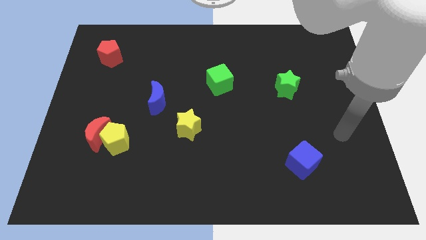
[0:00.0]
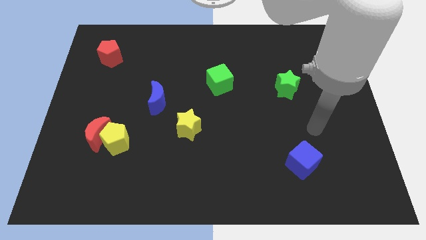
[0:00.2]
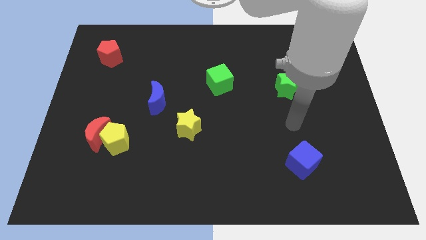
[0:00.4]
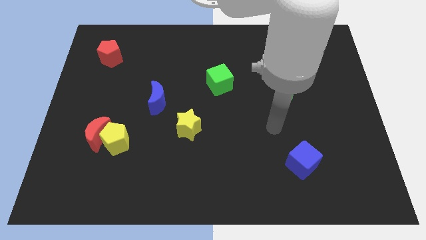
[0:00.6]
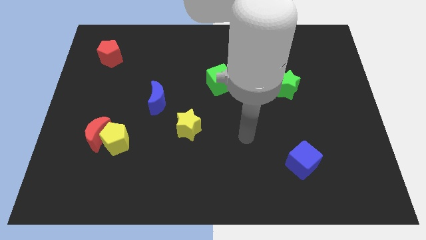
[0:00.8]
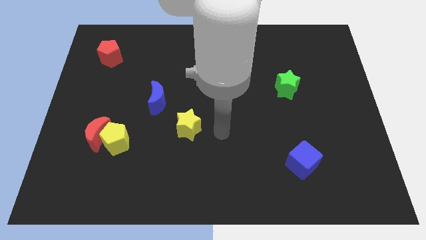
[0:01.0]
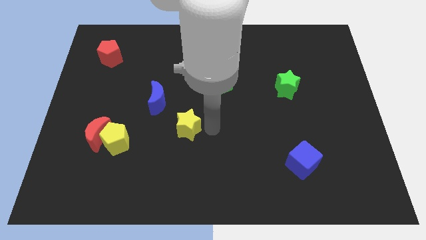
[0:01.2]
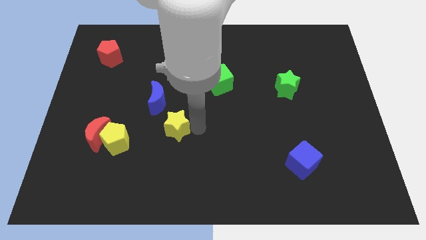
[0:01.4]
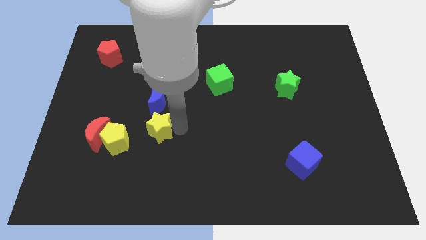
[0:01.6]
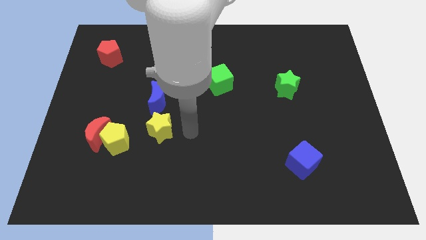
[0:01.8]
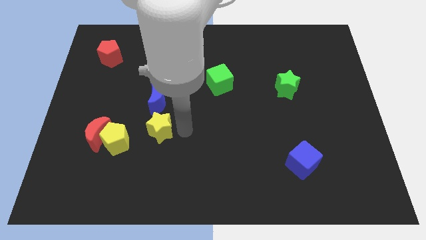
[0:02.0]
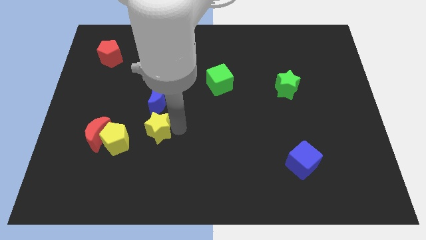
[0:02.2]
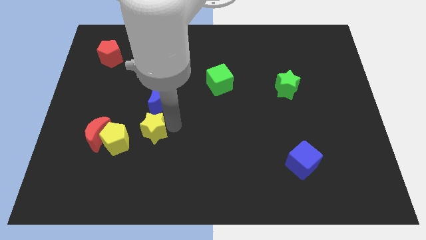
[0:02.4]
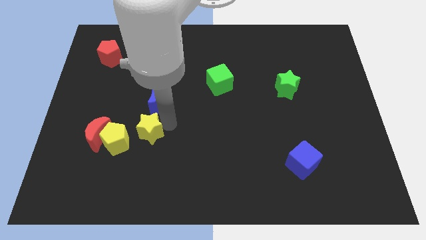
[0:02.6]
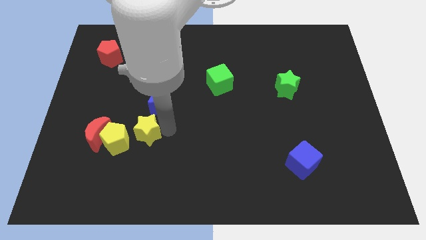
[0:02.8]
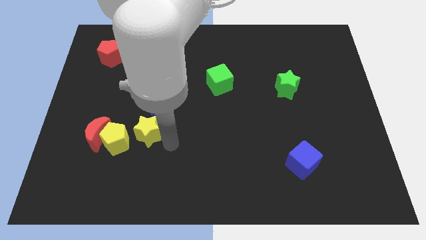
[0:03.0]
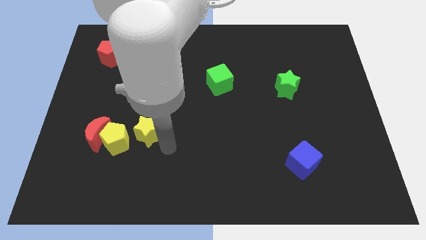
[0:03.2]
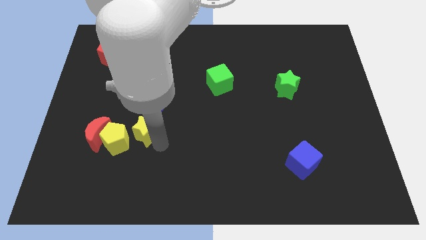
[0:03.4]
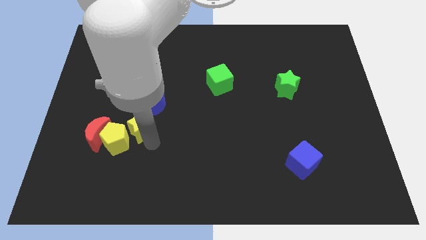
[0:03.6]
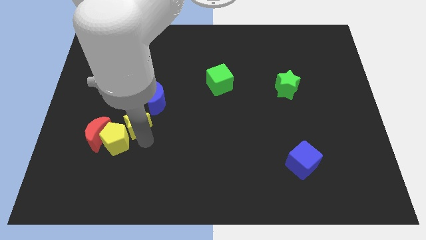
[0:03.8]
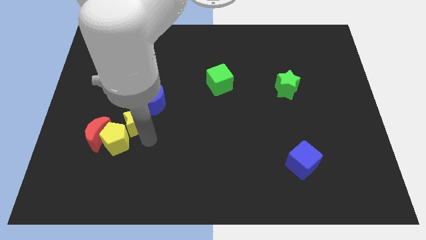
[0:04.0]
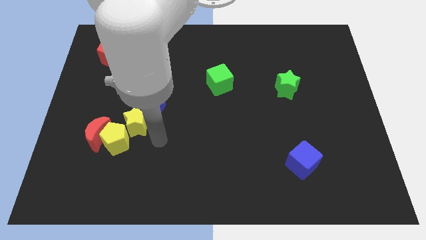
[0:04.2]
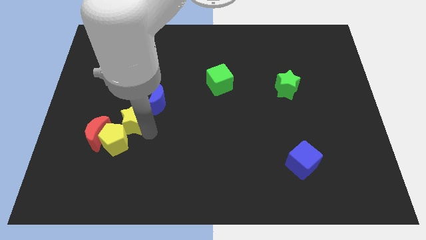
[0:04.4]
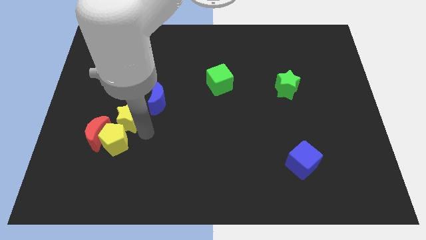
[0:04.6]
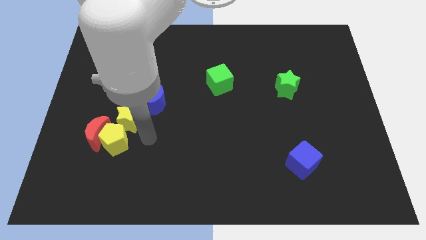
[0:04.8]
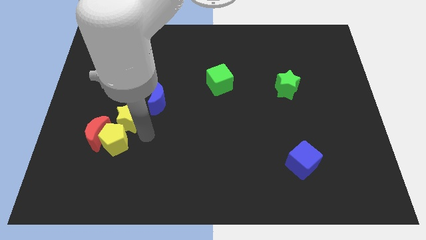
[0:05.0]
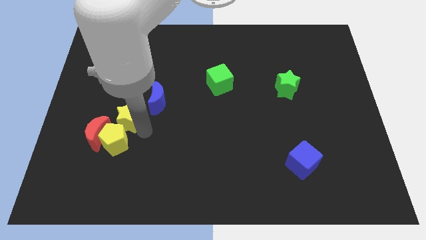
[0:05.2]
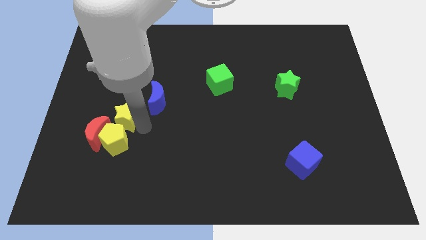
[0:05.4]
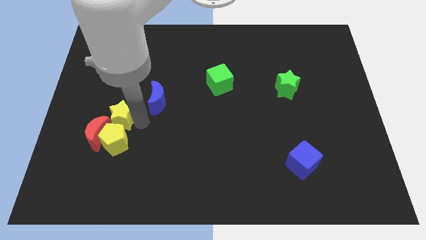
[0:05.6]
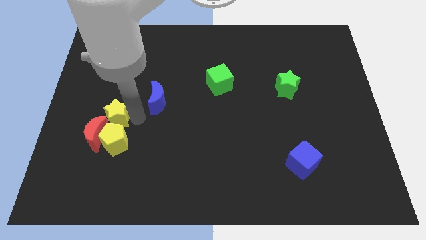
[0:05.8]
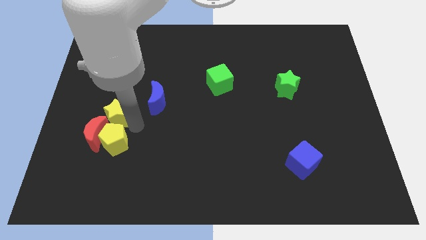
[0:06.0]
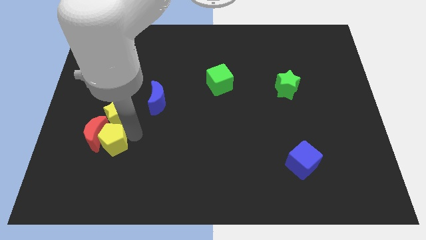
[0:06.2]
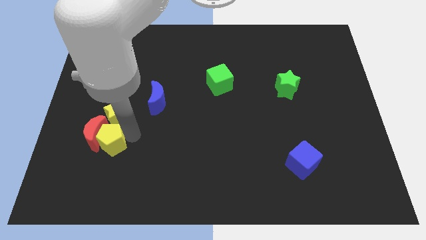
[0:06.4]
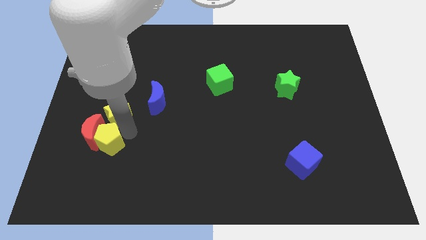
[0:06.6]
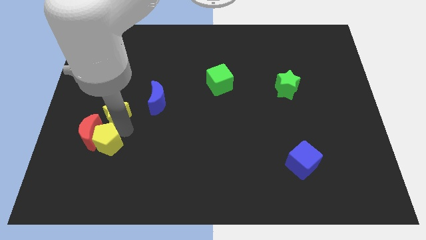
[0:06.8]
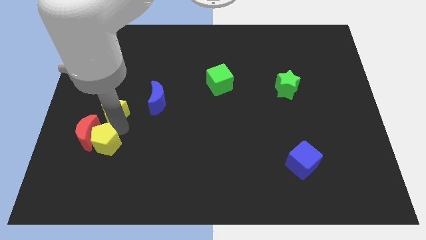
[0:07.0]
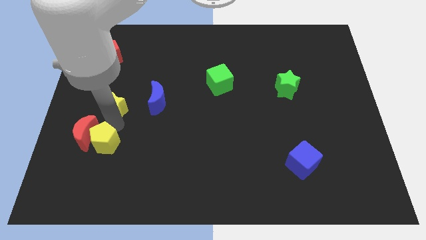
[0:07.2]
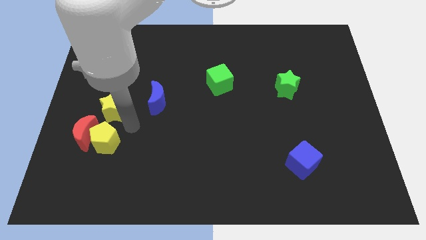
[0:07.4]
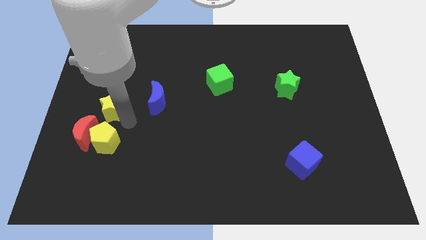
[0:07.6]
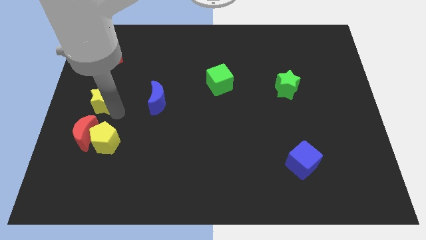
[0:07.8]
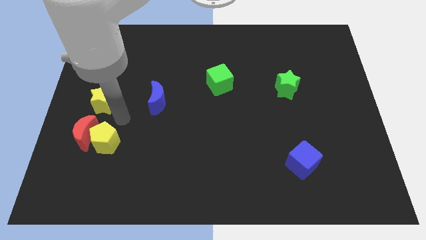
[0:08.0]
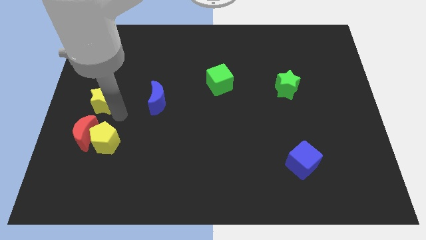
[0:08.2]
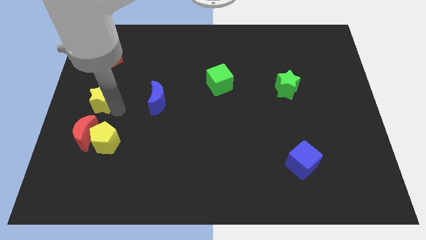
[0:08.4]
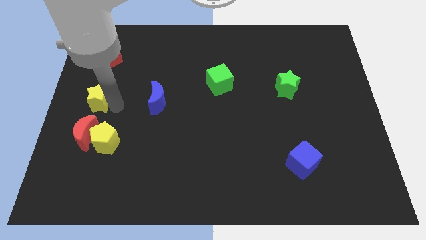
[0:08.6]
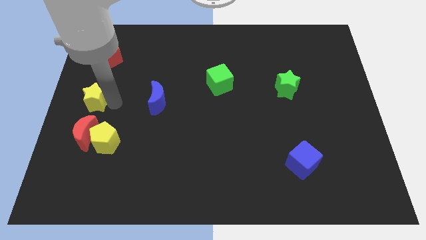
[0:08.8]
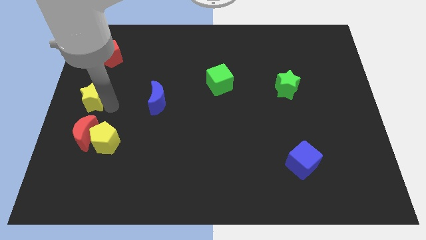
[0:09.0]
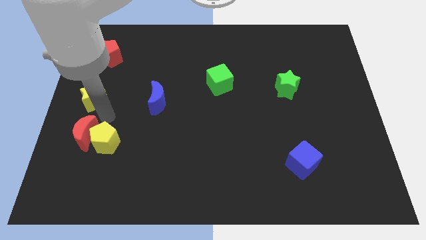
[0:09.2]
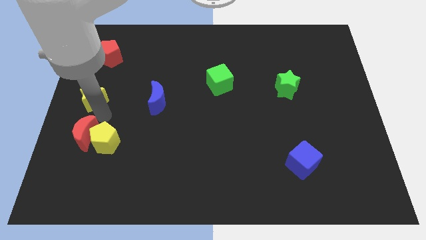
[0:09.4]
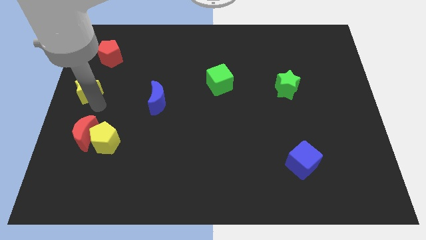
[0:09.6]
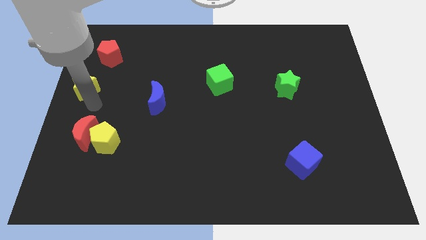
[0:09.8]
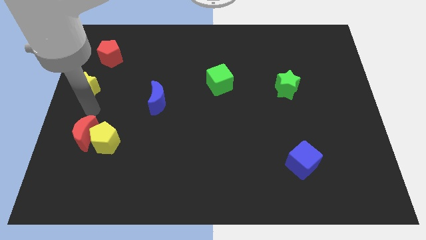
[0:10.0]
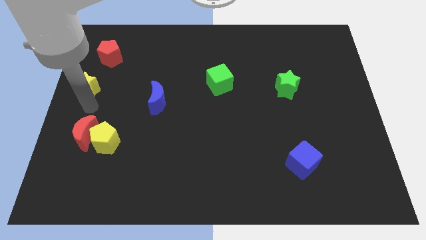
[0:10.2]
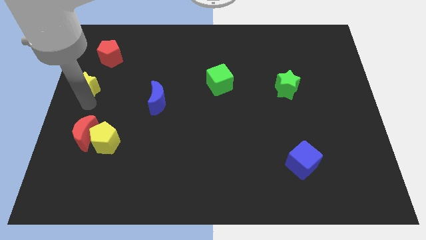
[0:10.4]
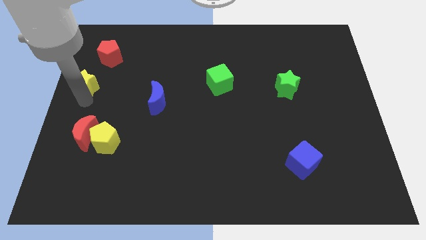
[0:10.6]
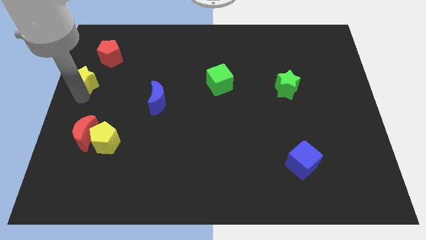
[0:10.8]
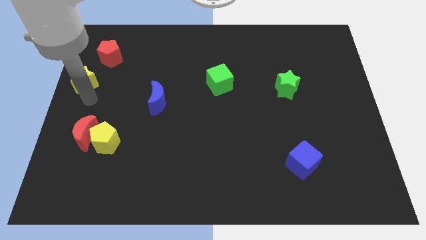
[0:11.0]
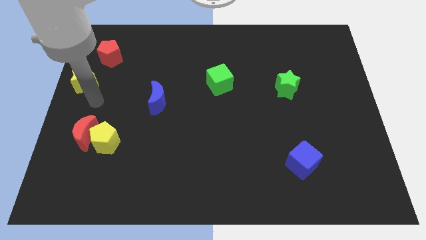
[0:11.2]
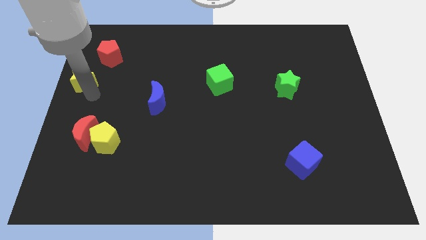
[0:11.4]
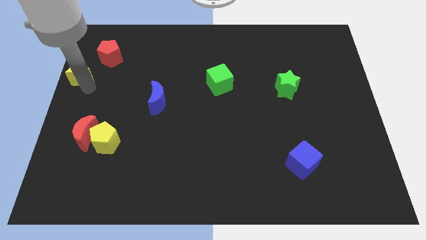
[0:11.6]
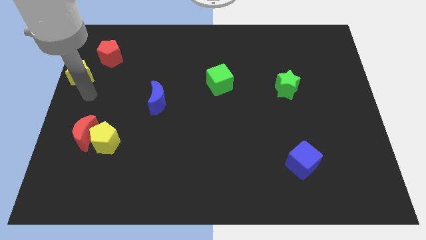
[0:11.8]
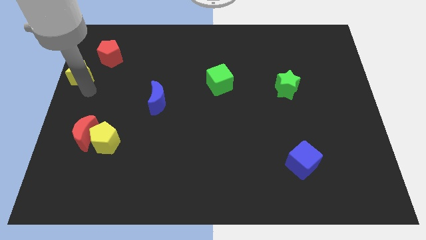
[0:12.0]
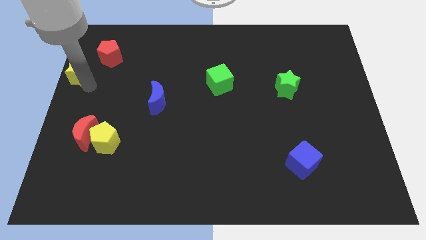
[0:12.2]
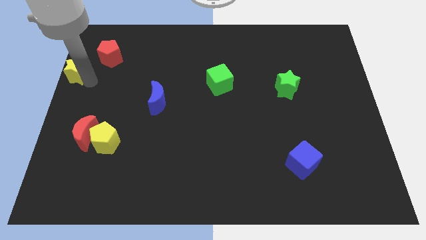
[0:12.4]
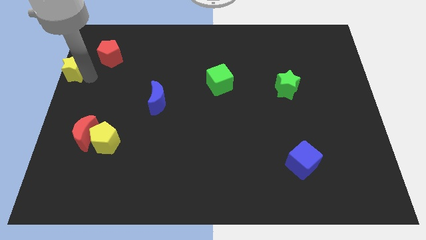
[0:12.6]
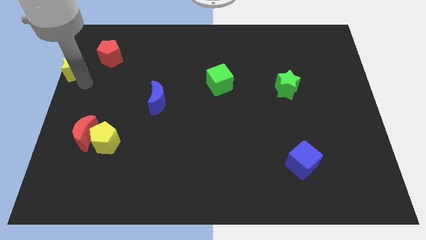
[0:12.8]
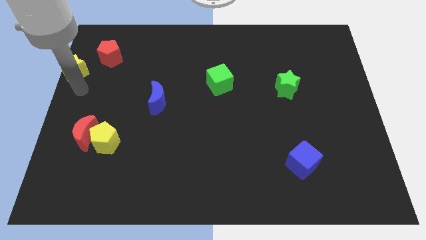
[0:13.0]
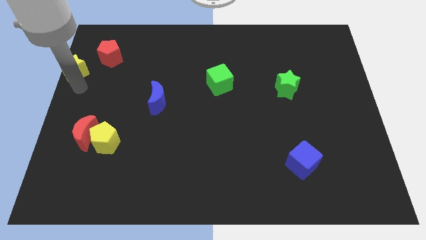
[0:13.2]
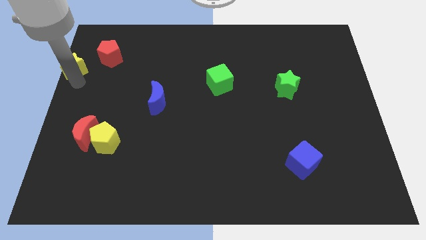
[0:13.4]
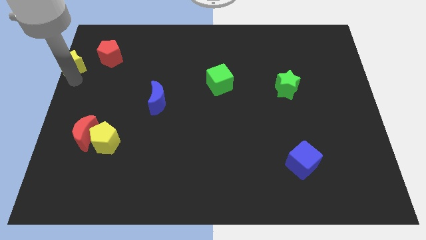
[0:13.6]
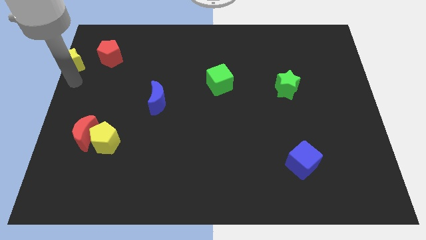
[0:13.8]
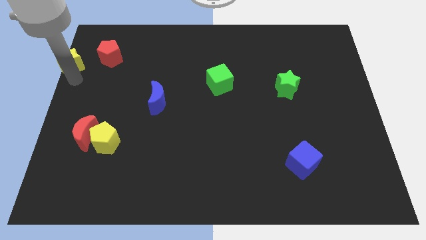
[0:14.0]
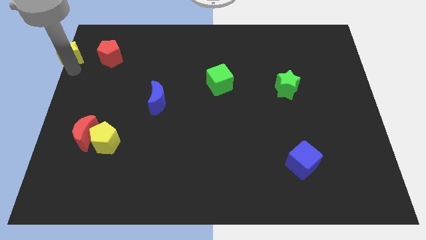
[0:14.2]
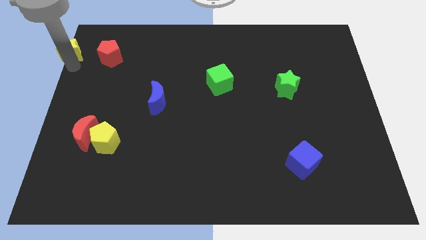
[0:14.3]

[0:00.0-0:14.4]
put the yellow star to the top left of the board
